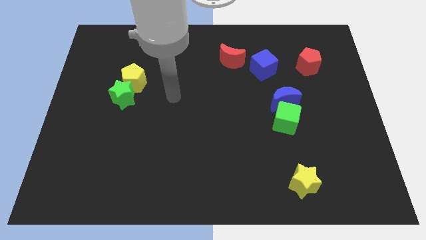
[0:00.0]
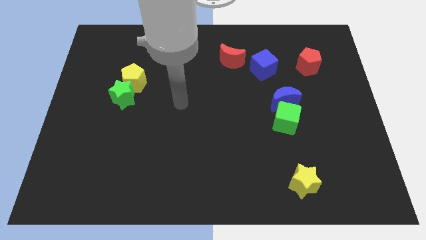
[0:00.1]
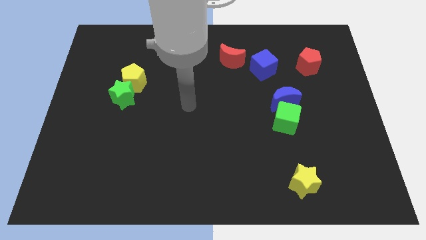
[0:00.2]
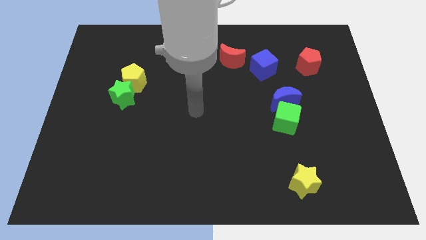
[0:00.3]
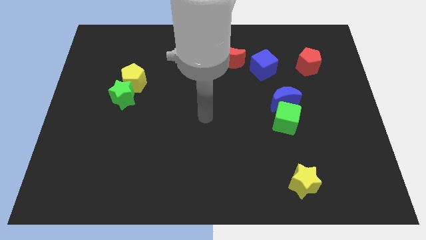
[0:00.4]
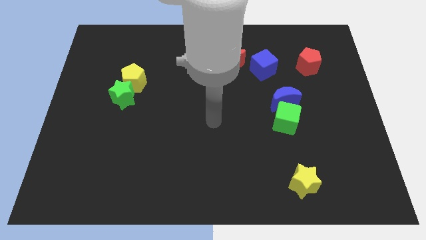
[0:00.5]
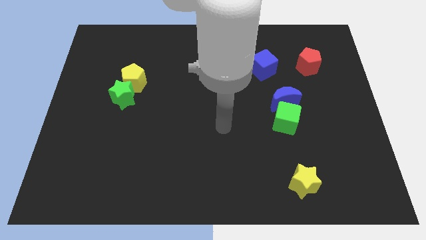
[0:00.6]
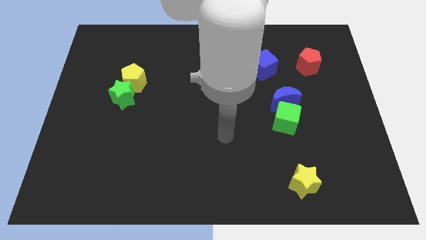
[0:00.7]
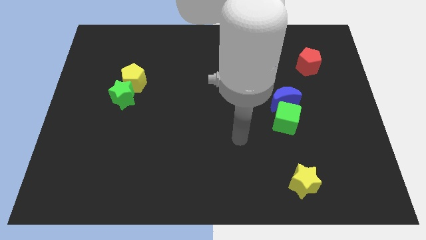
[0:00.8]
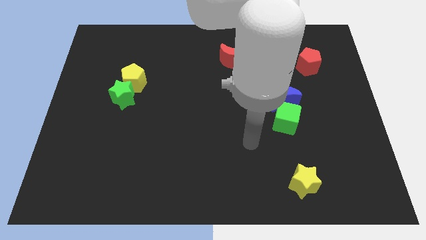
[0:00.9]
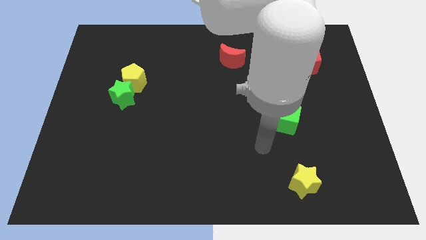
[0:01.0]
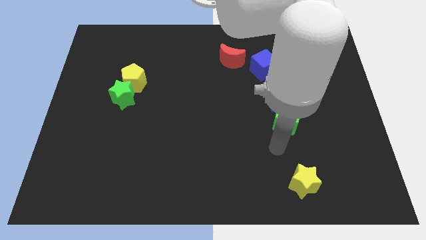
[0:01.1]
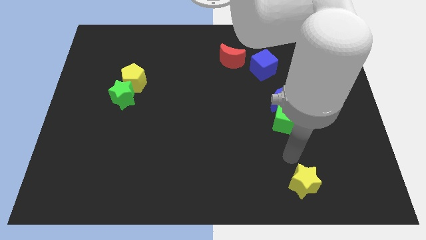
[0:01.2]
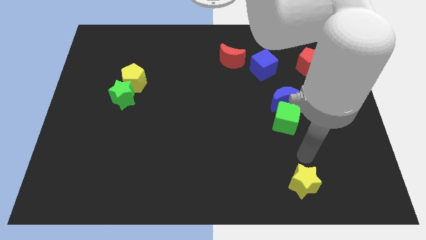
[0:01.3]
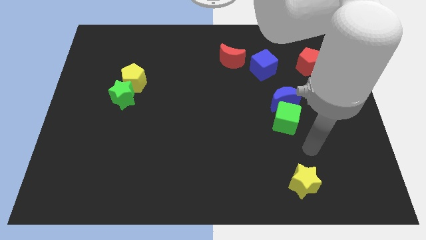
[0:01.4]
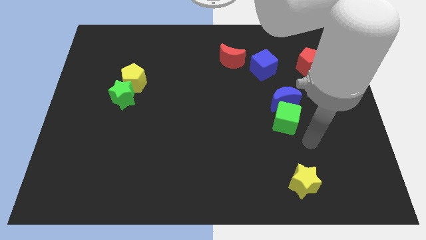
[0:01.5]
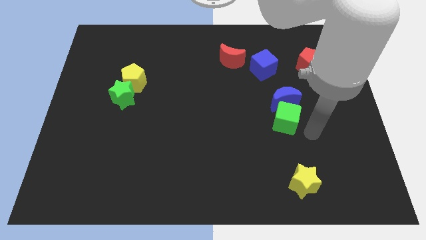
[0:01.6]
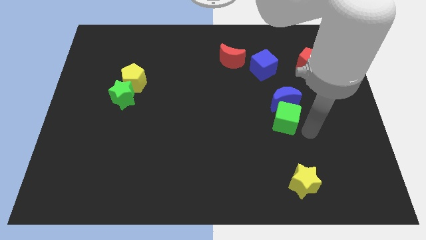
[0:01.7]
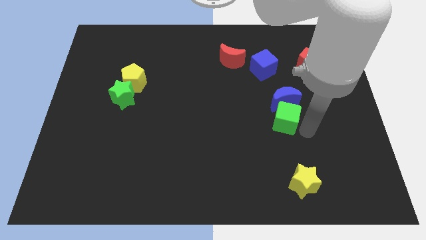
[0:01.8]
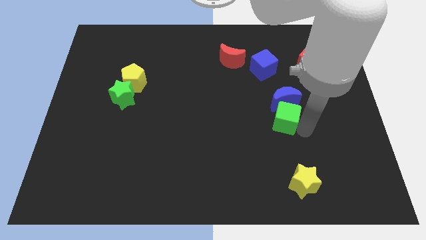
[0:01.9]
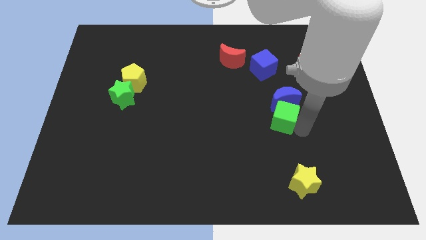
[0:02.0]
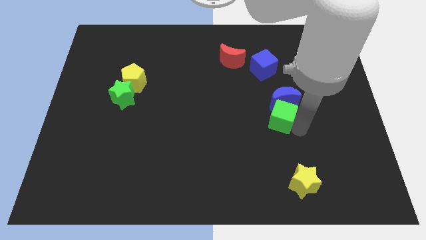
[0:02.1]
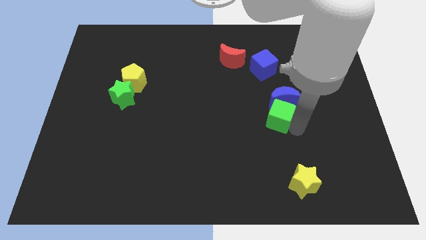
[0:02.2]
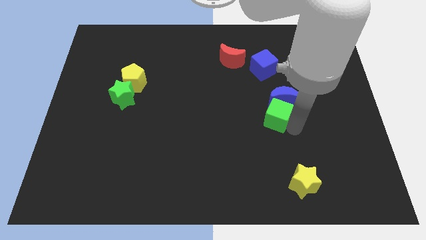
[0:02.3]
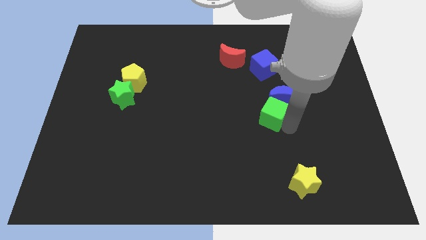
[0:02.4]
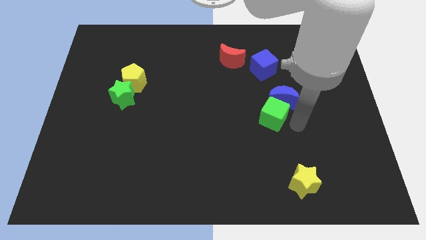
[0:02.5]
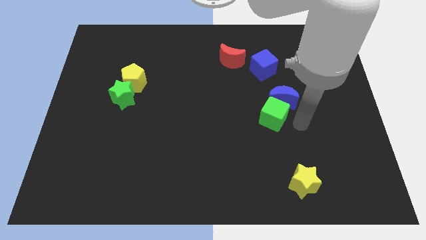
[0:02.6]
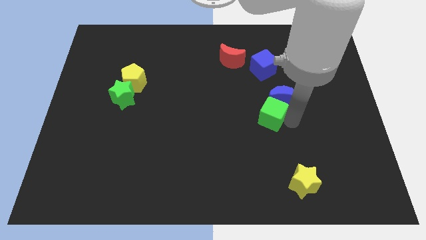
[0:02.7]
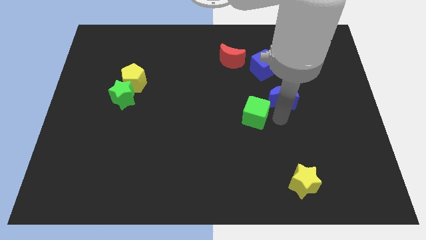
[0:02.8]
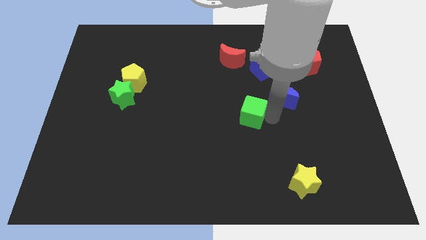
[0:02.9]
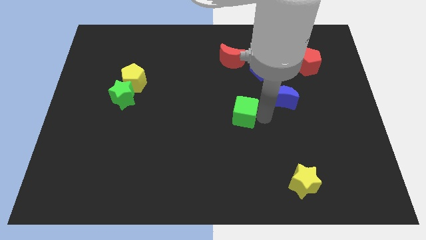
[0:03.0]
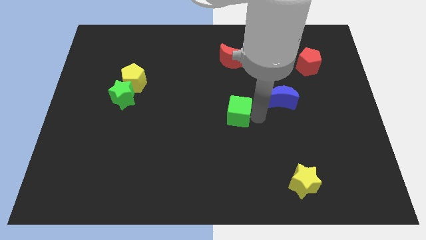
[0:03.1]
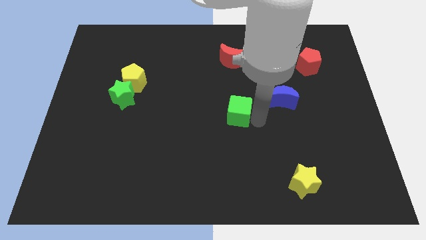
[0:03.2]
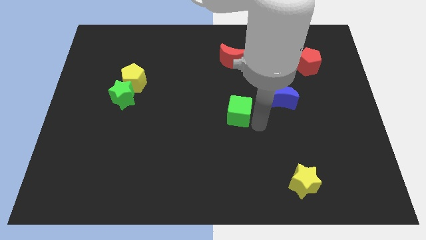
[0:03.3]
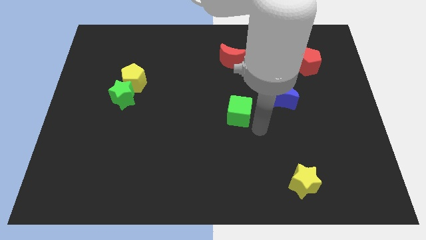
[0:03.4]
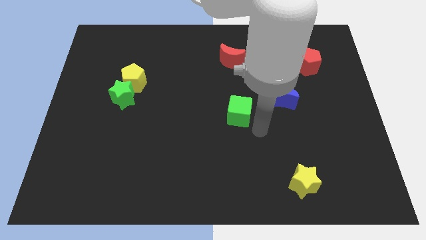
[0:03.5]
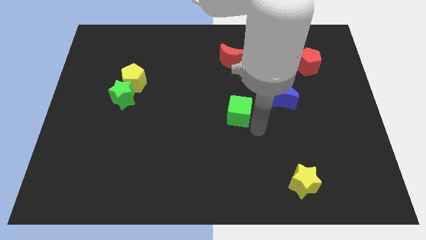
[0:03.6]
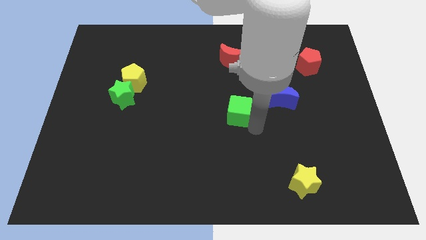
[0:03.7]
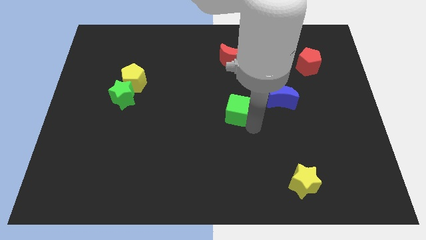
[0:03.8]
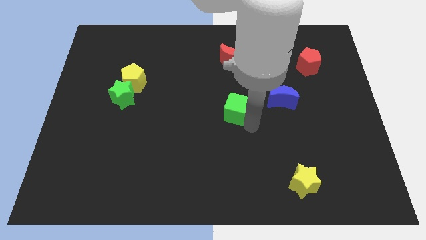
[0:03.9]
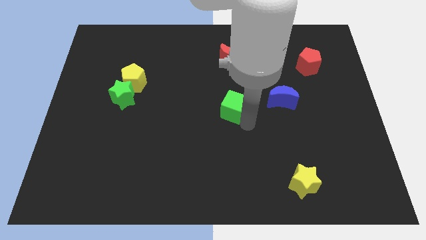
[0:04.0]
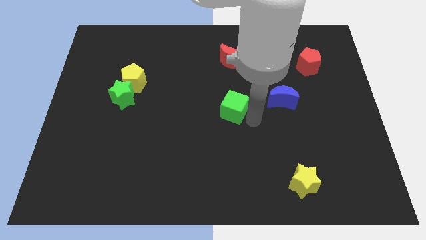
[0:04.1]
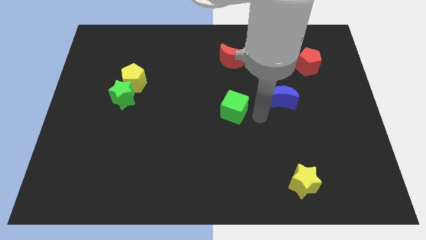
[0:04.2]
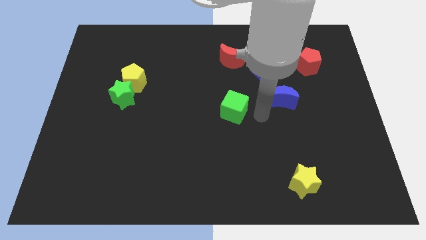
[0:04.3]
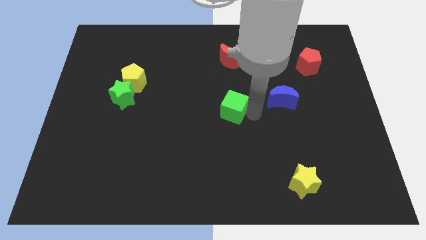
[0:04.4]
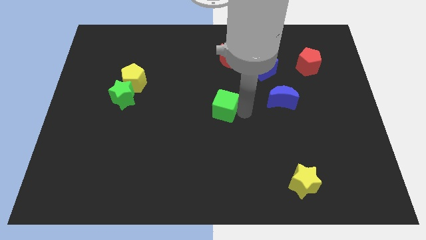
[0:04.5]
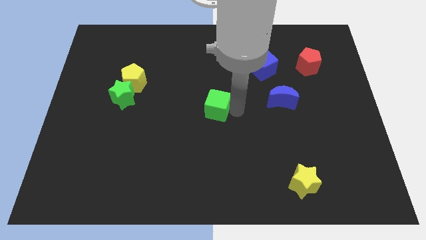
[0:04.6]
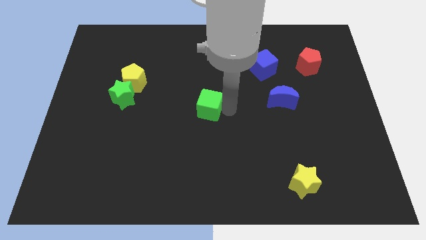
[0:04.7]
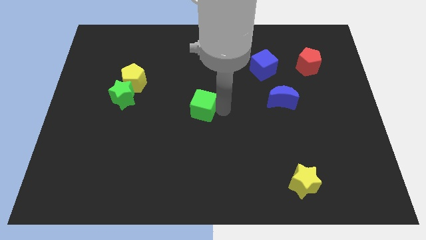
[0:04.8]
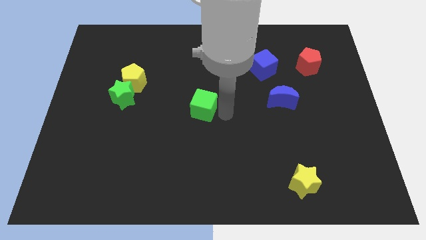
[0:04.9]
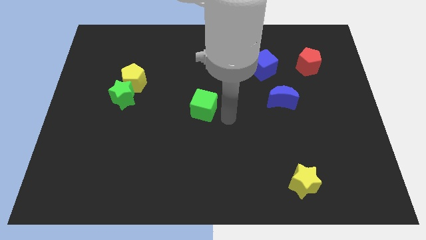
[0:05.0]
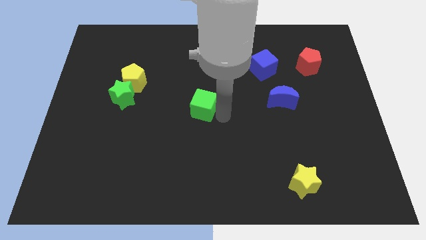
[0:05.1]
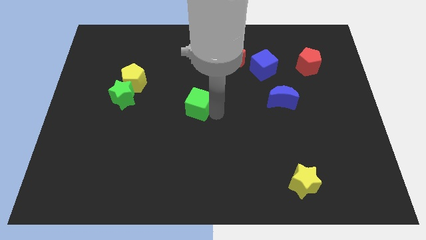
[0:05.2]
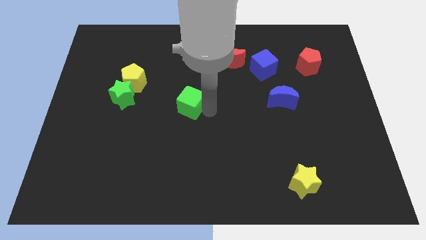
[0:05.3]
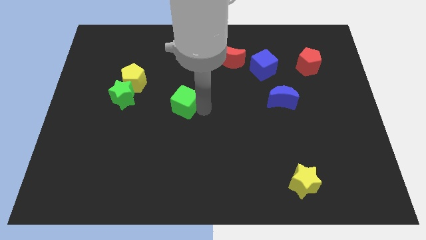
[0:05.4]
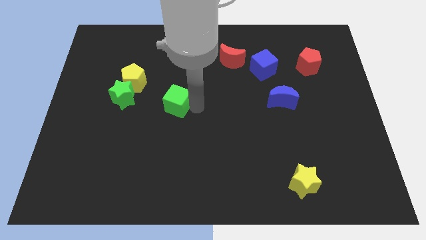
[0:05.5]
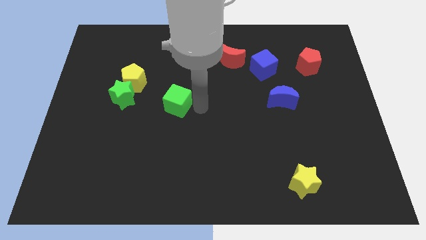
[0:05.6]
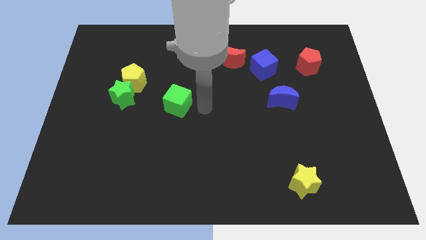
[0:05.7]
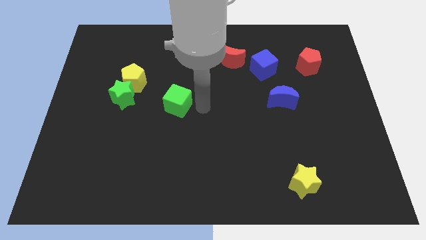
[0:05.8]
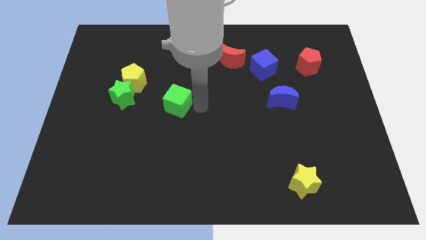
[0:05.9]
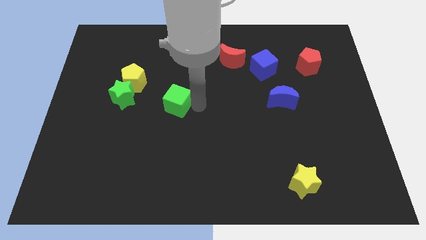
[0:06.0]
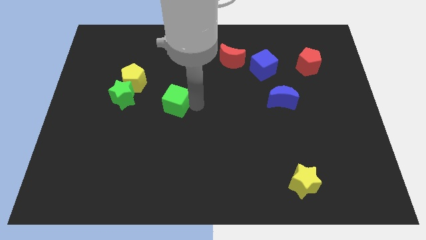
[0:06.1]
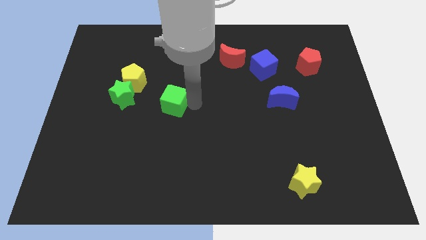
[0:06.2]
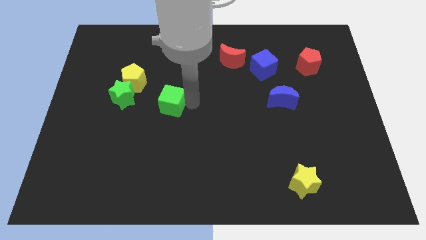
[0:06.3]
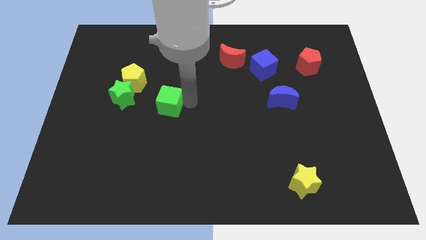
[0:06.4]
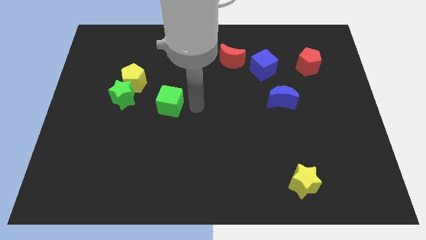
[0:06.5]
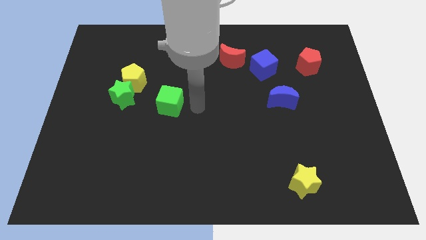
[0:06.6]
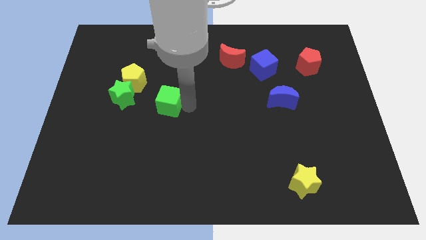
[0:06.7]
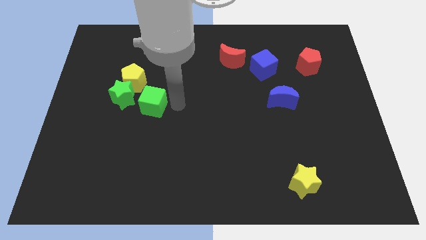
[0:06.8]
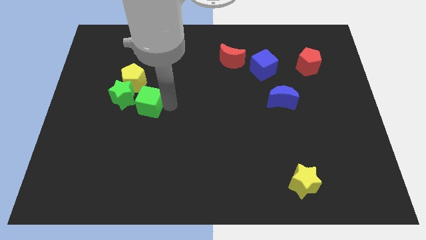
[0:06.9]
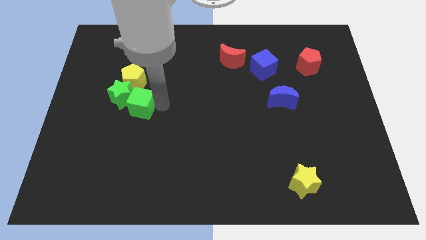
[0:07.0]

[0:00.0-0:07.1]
put the green cube towards the green star
